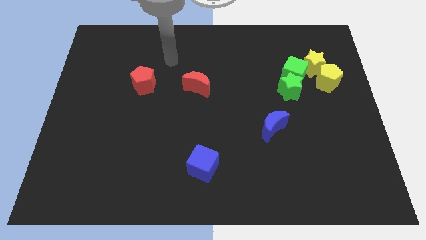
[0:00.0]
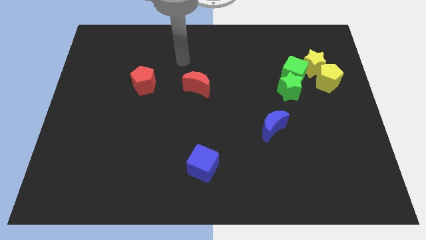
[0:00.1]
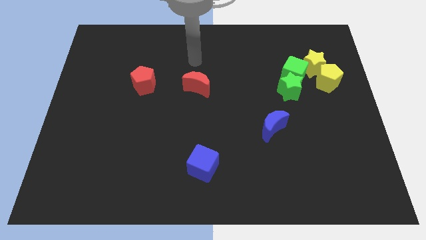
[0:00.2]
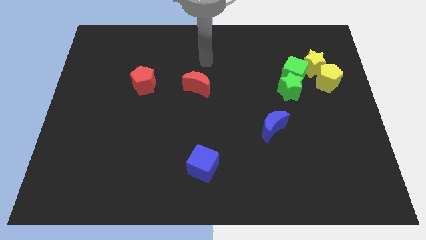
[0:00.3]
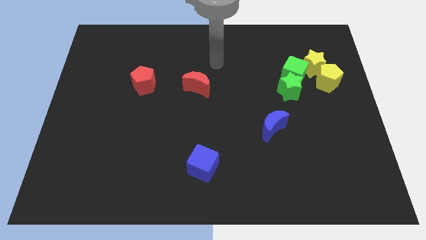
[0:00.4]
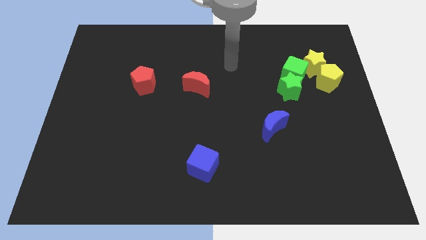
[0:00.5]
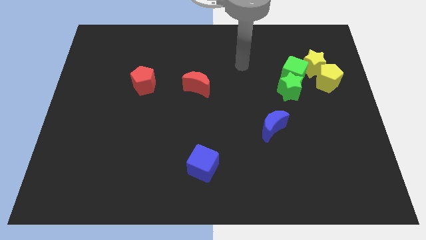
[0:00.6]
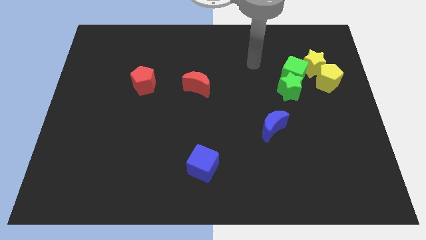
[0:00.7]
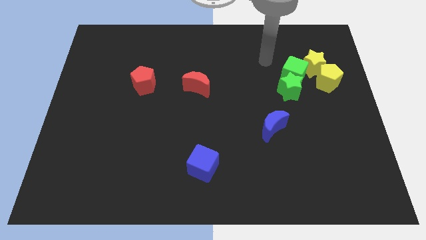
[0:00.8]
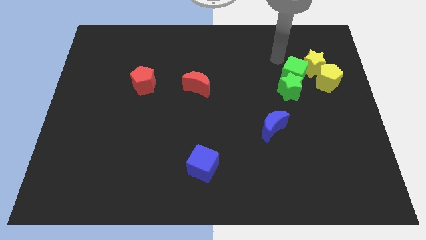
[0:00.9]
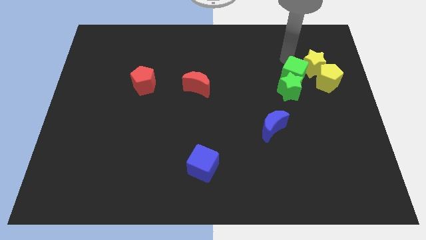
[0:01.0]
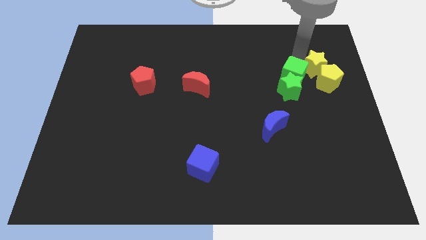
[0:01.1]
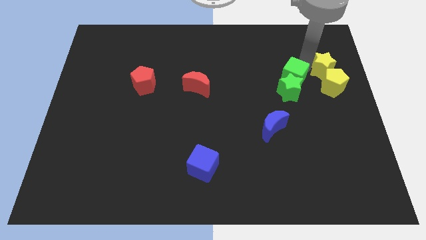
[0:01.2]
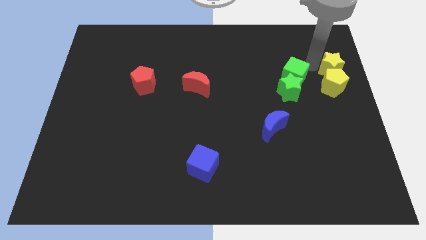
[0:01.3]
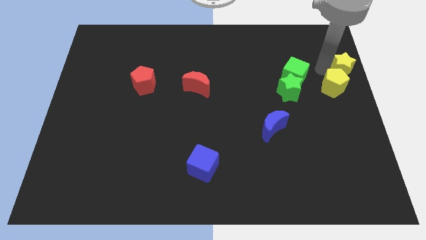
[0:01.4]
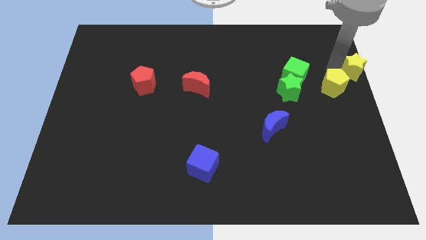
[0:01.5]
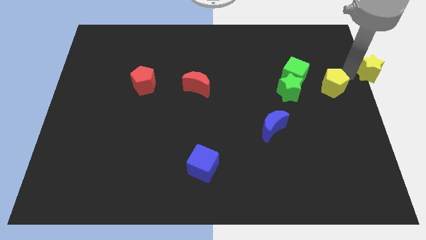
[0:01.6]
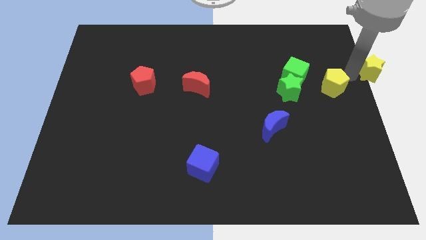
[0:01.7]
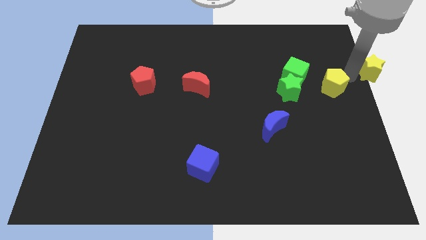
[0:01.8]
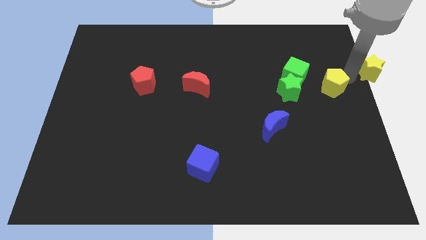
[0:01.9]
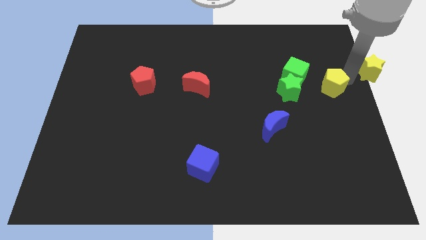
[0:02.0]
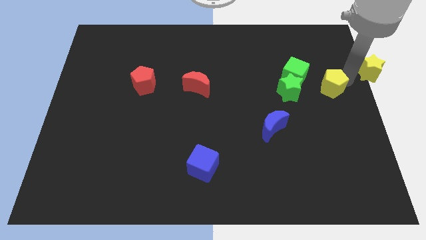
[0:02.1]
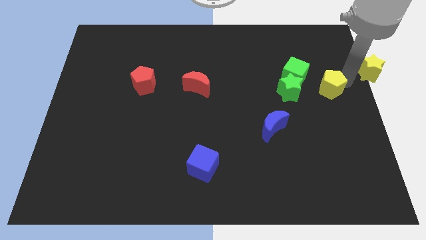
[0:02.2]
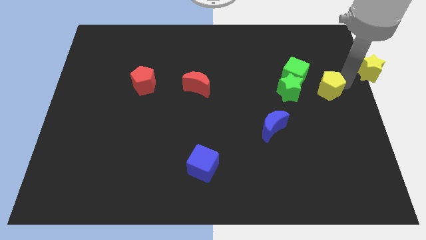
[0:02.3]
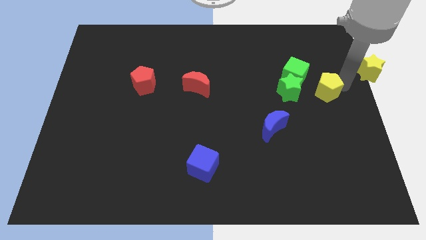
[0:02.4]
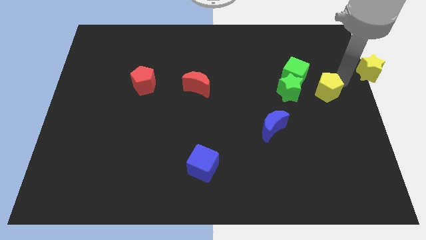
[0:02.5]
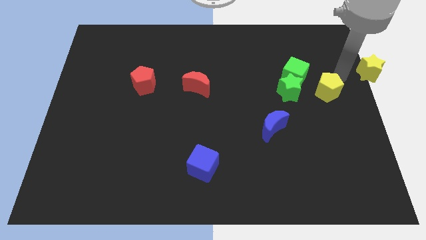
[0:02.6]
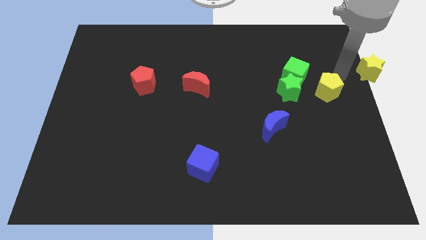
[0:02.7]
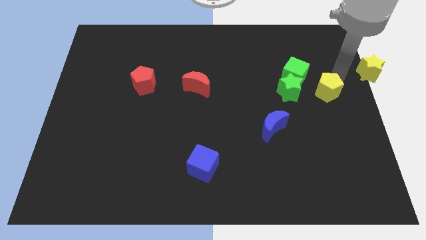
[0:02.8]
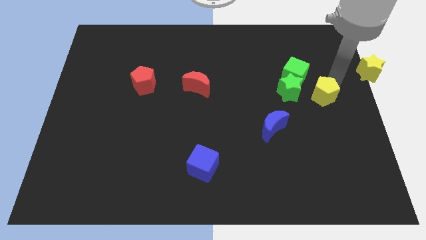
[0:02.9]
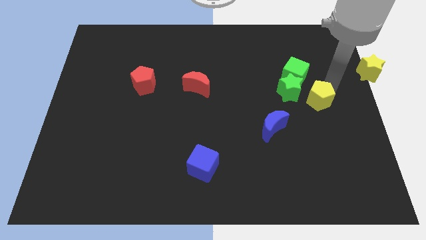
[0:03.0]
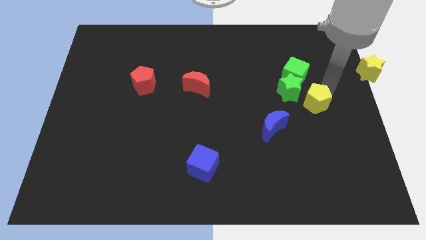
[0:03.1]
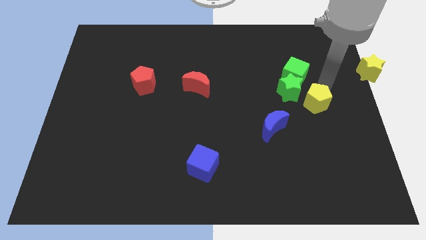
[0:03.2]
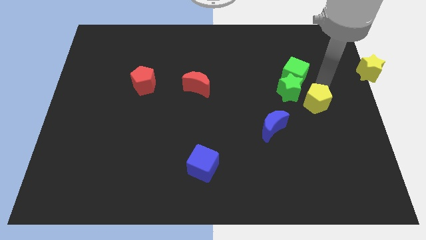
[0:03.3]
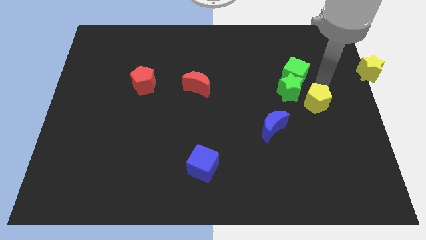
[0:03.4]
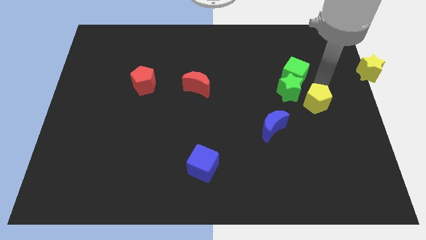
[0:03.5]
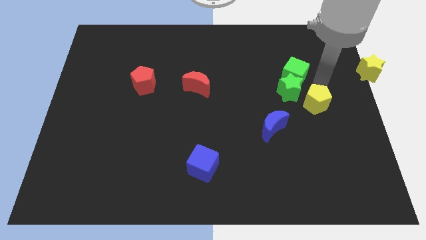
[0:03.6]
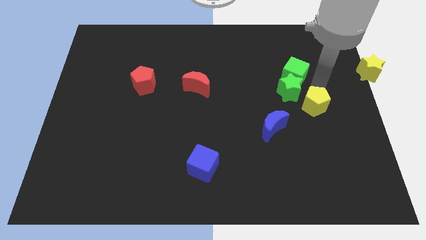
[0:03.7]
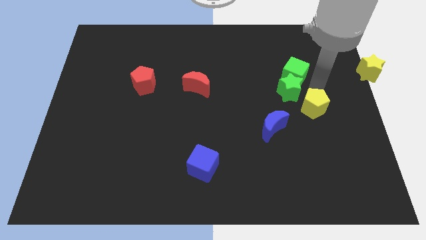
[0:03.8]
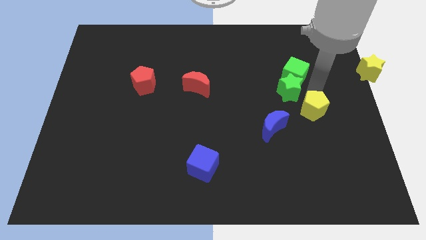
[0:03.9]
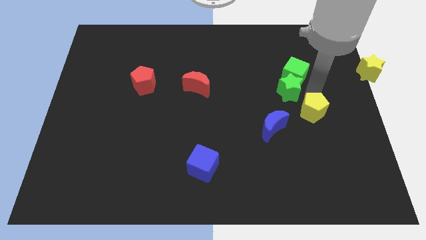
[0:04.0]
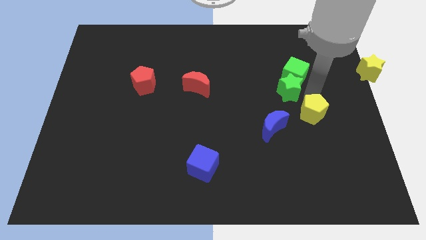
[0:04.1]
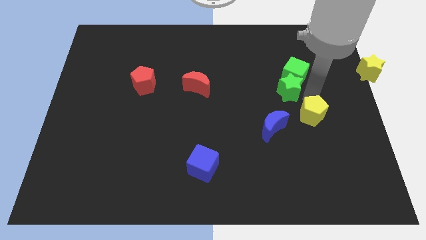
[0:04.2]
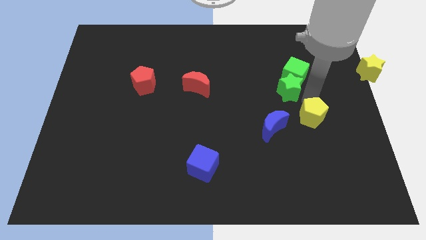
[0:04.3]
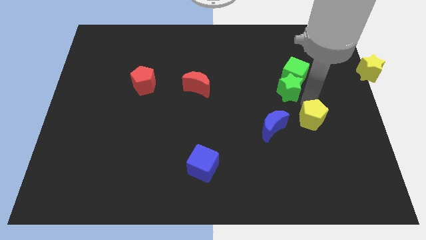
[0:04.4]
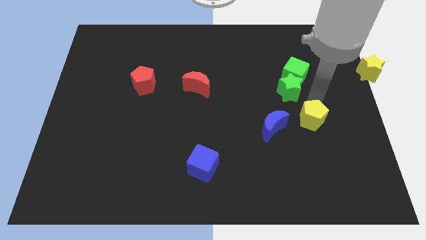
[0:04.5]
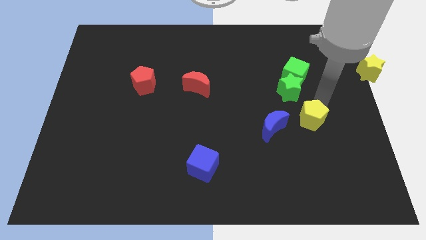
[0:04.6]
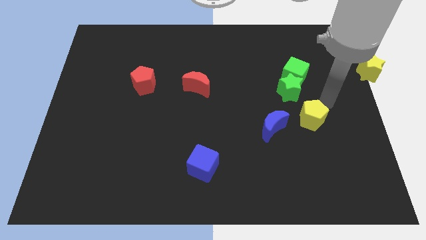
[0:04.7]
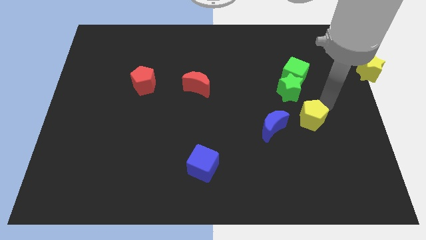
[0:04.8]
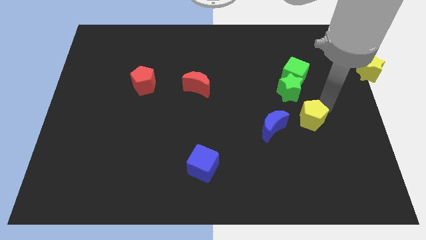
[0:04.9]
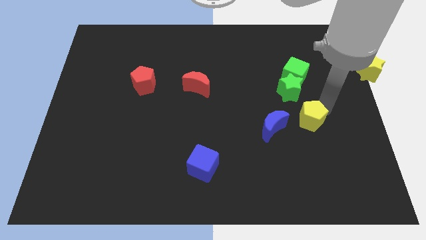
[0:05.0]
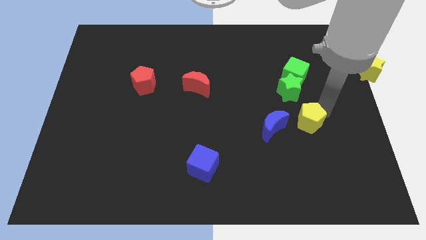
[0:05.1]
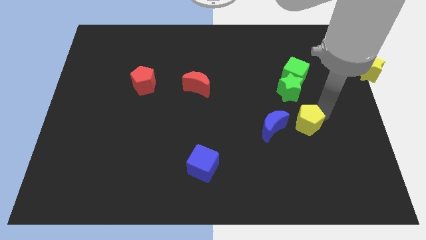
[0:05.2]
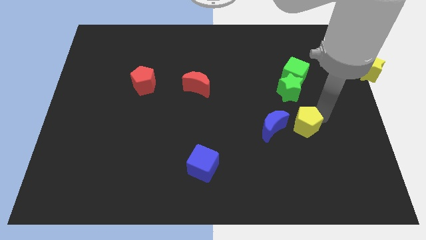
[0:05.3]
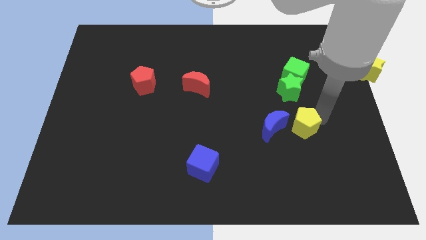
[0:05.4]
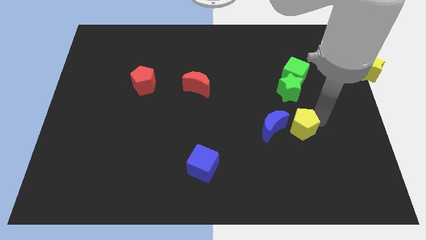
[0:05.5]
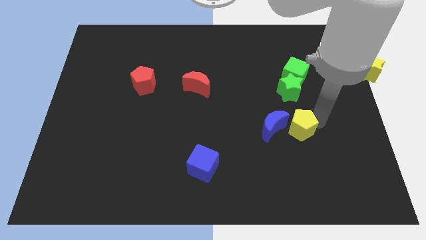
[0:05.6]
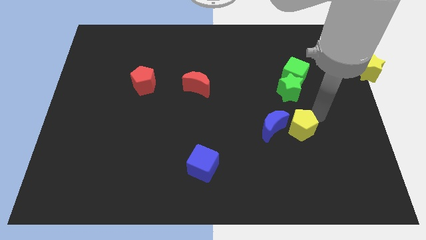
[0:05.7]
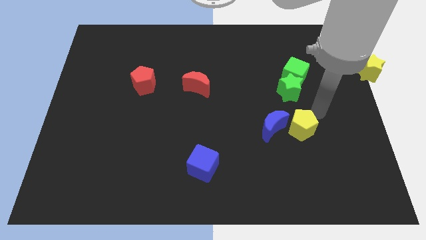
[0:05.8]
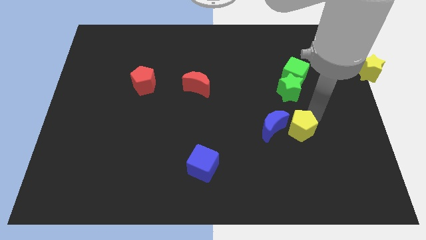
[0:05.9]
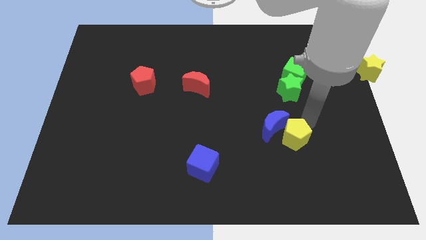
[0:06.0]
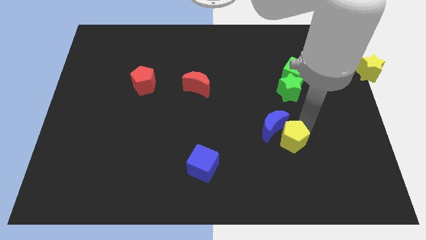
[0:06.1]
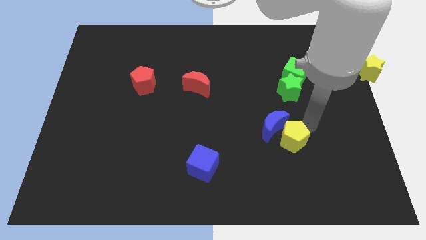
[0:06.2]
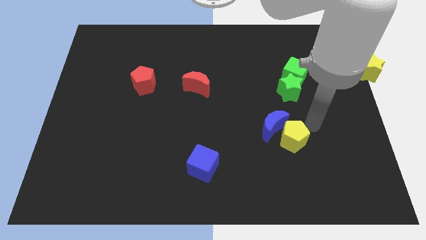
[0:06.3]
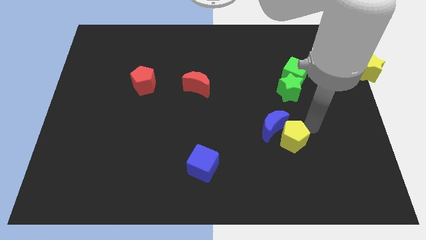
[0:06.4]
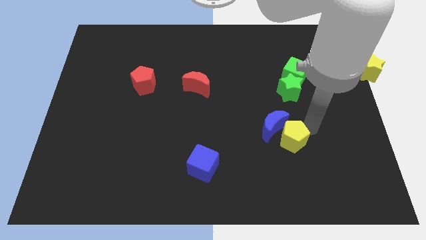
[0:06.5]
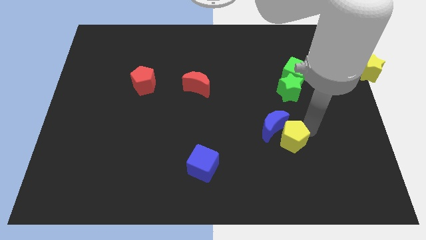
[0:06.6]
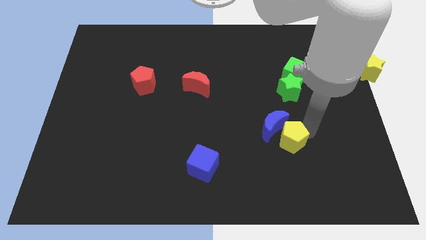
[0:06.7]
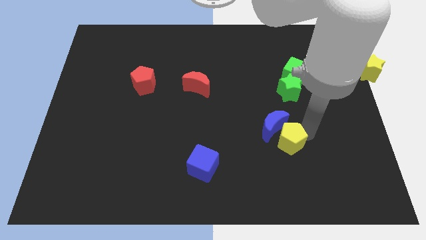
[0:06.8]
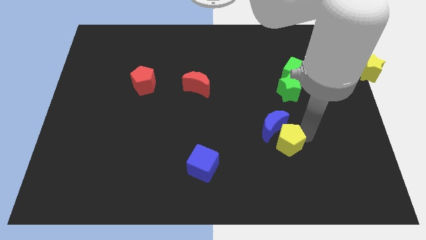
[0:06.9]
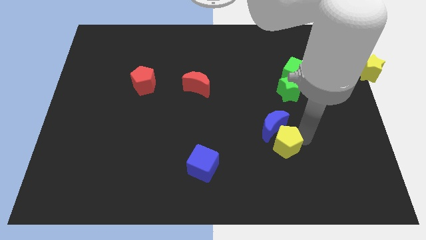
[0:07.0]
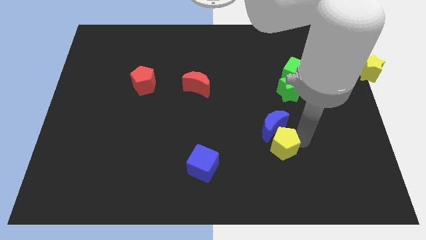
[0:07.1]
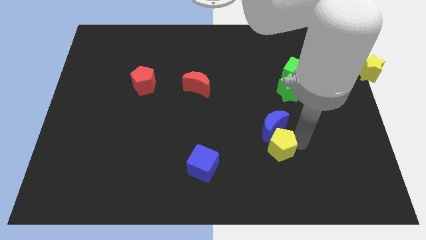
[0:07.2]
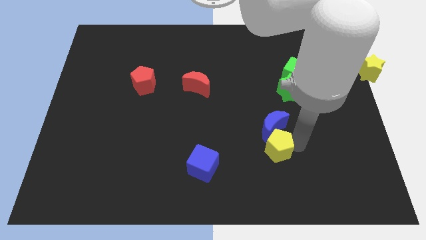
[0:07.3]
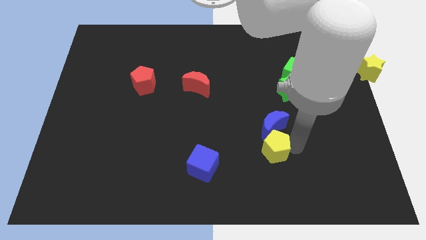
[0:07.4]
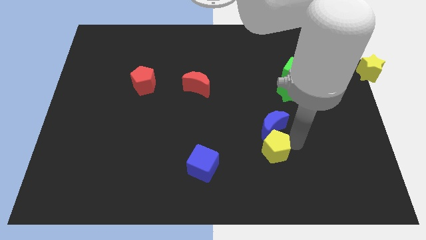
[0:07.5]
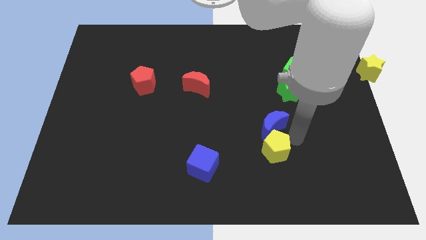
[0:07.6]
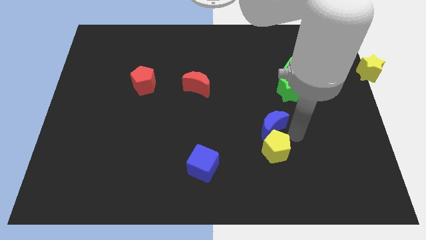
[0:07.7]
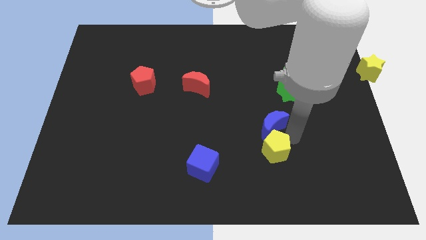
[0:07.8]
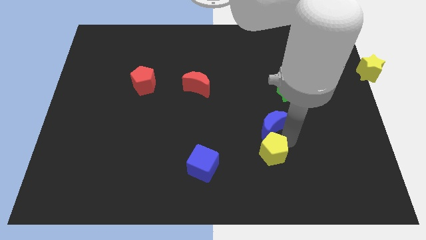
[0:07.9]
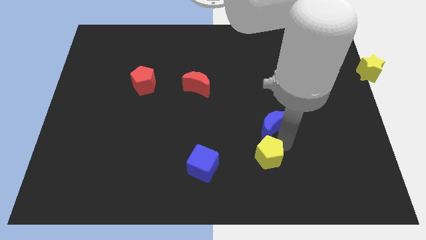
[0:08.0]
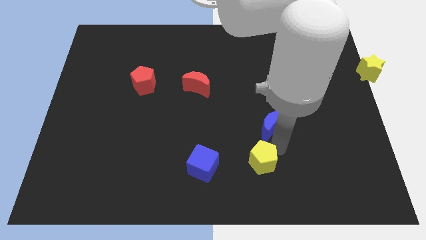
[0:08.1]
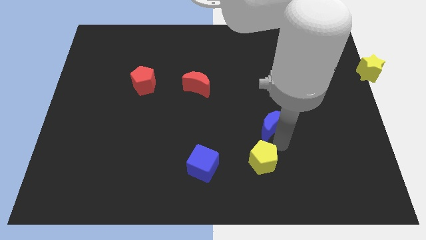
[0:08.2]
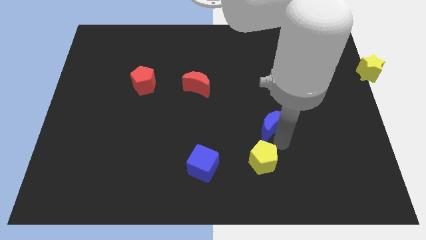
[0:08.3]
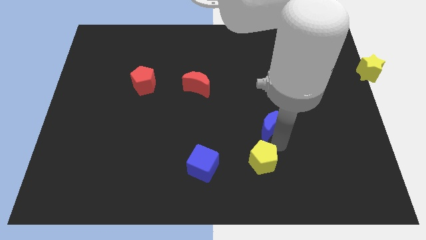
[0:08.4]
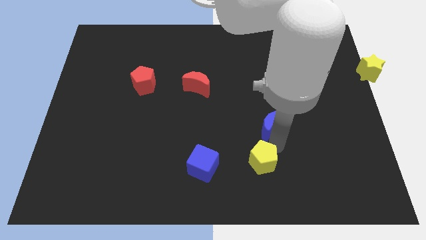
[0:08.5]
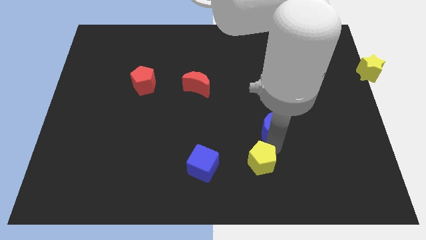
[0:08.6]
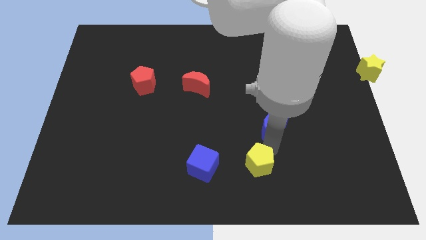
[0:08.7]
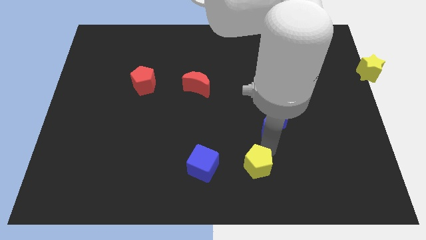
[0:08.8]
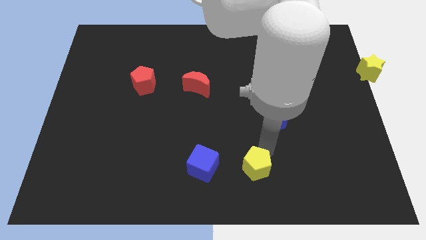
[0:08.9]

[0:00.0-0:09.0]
move the yellow pentagon to the bottom
